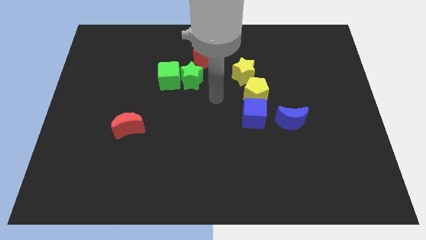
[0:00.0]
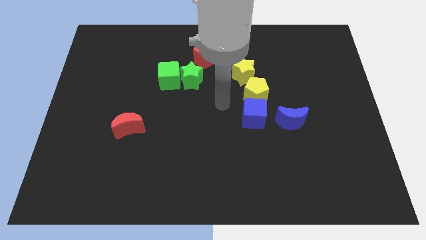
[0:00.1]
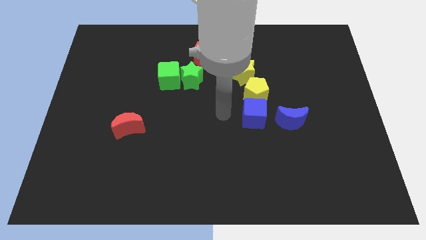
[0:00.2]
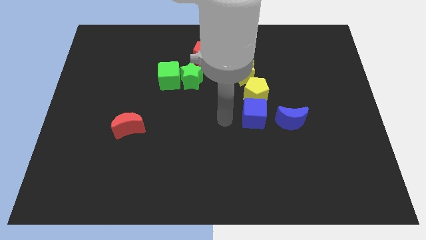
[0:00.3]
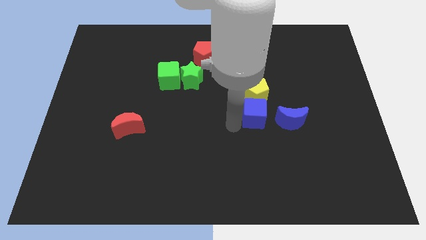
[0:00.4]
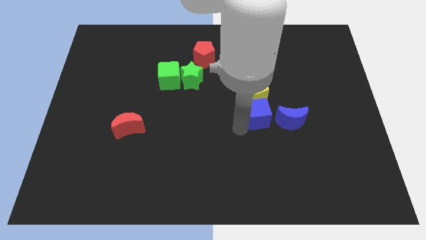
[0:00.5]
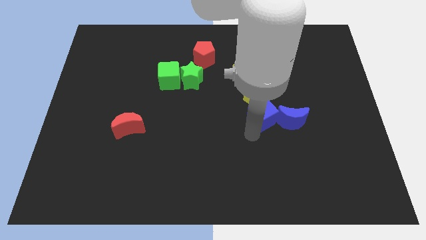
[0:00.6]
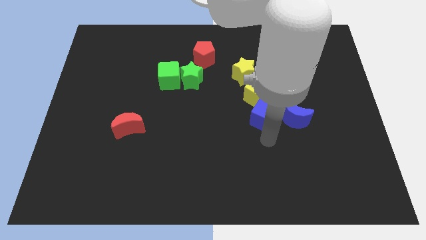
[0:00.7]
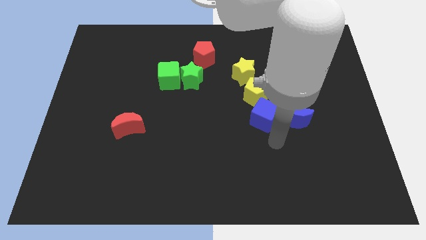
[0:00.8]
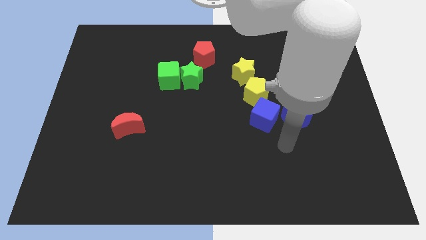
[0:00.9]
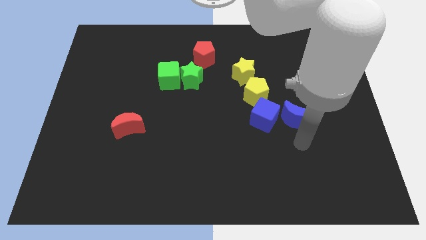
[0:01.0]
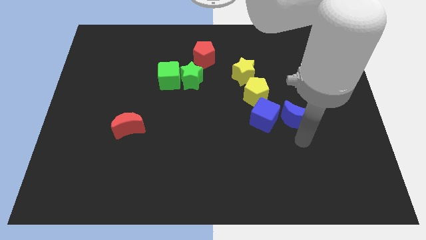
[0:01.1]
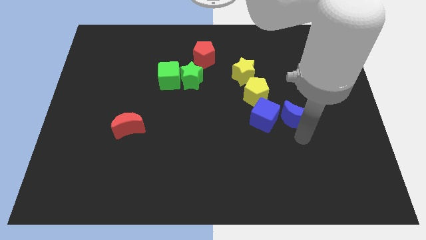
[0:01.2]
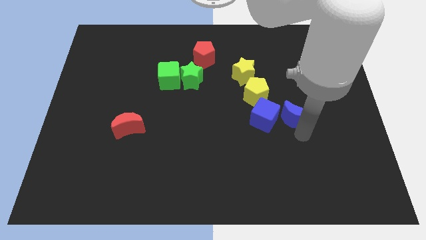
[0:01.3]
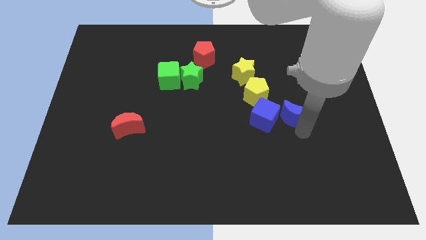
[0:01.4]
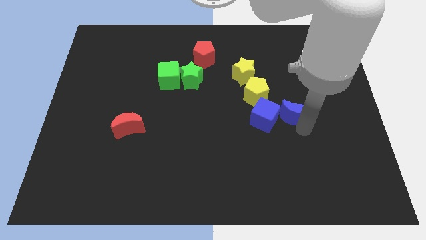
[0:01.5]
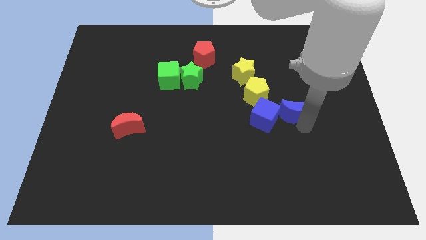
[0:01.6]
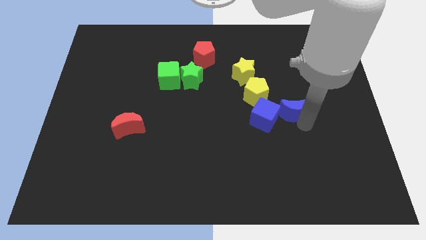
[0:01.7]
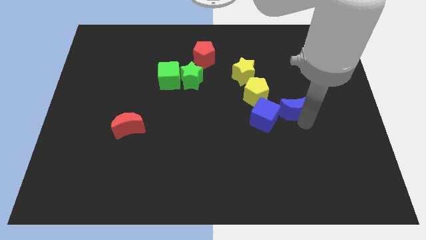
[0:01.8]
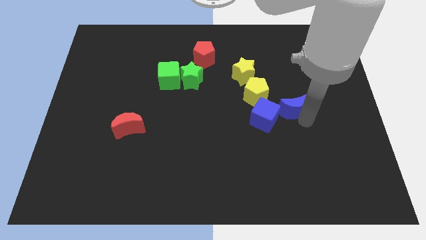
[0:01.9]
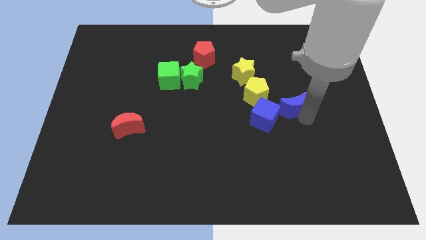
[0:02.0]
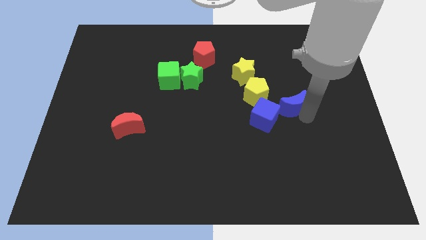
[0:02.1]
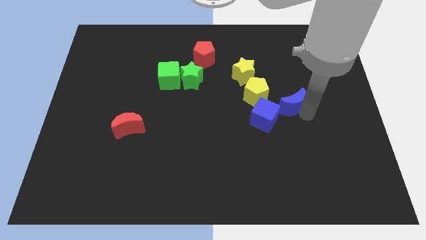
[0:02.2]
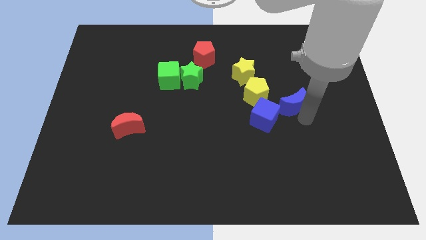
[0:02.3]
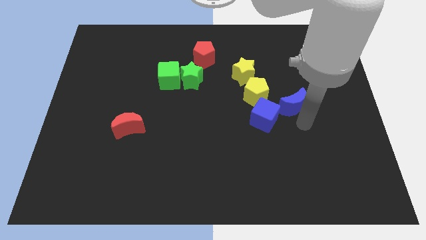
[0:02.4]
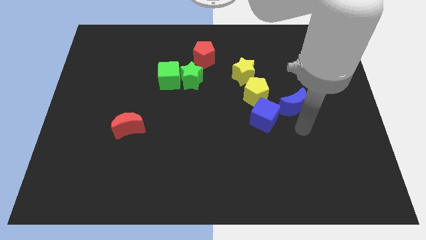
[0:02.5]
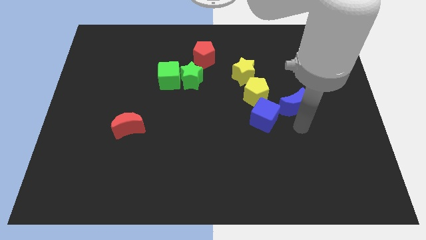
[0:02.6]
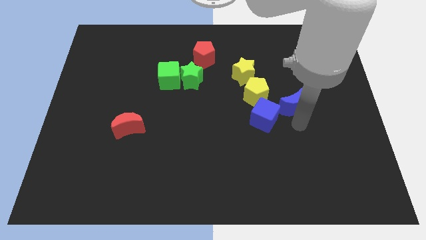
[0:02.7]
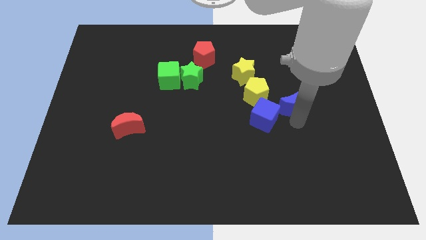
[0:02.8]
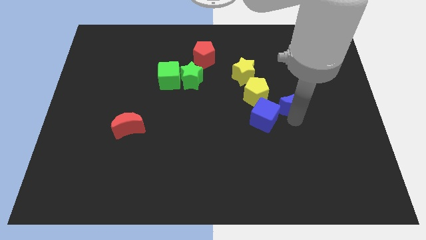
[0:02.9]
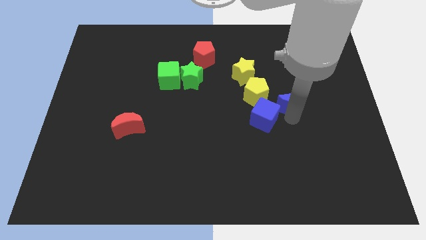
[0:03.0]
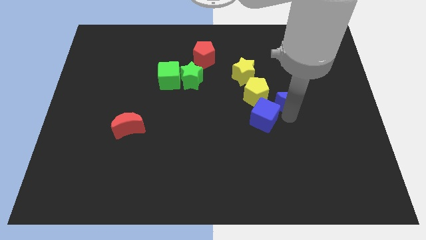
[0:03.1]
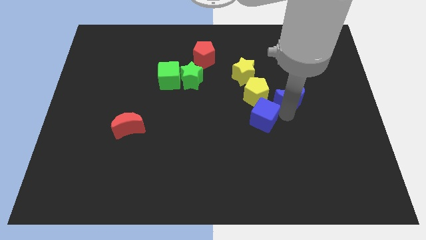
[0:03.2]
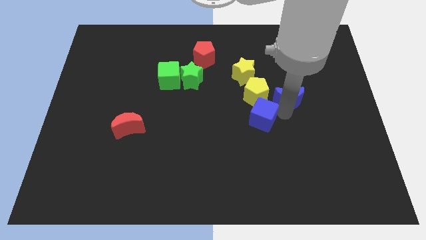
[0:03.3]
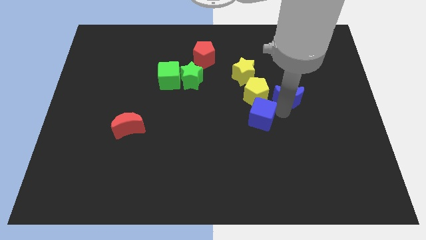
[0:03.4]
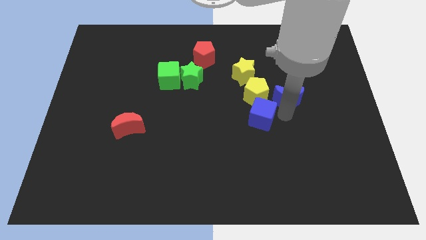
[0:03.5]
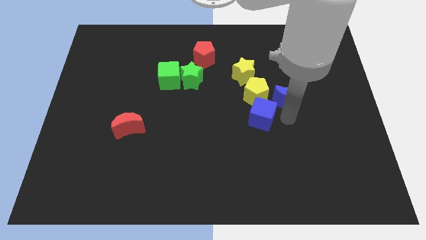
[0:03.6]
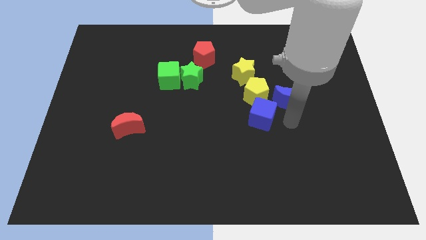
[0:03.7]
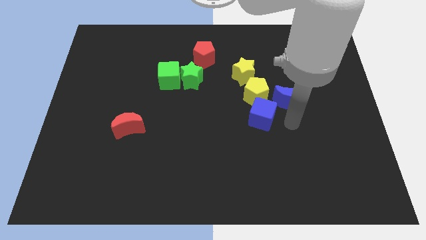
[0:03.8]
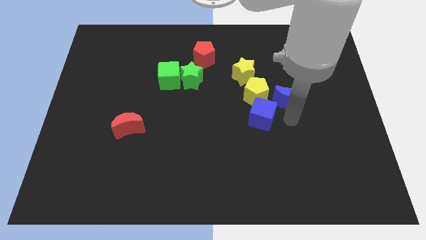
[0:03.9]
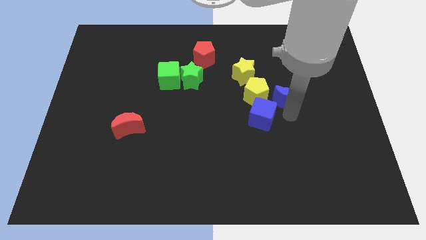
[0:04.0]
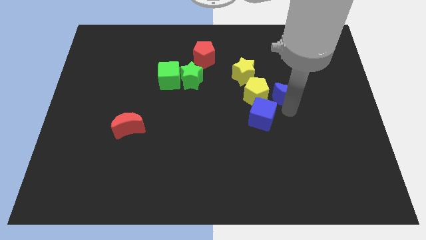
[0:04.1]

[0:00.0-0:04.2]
slightly slide the blue moon up

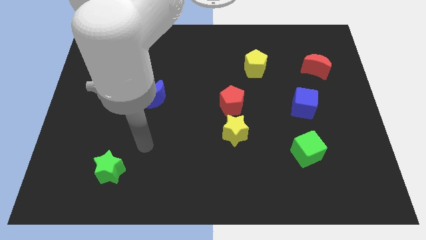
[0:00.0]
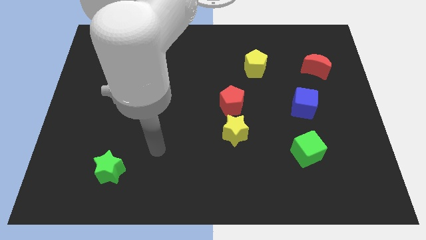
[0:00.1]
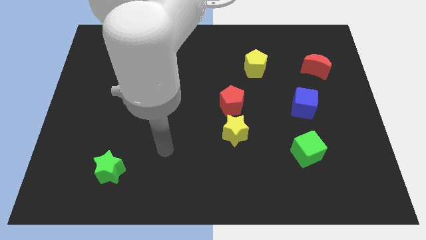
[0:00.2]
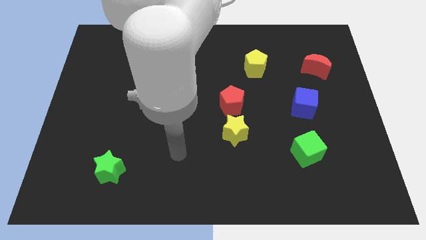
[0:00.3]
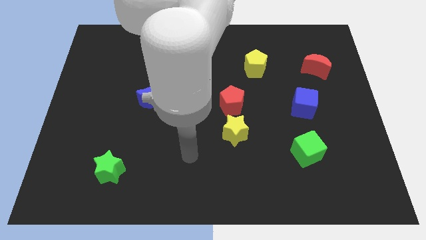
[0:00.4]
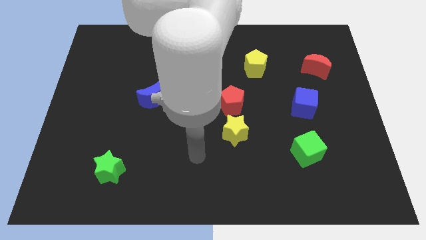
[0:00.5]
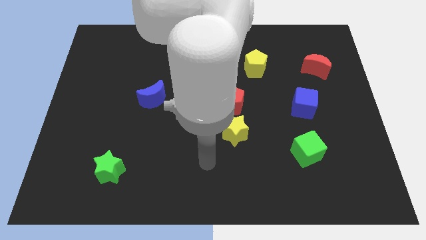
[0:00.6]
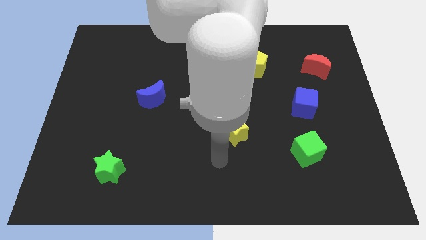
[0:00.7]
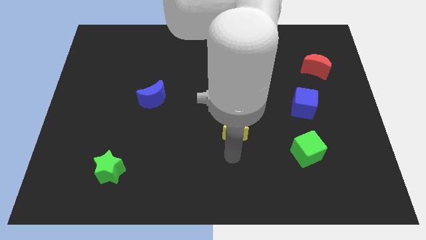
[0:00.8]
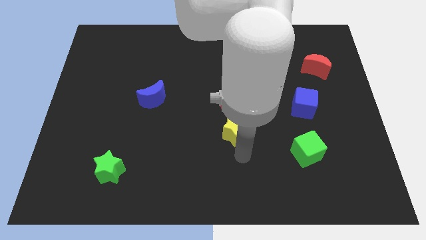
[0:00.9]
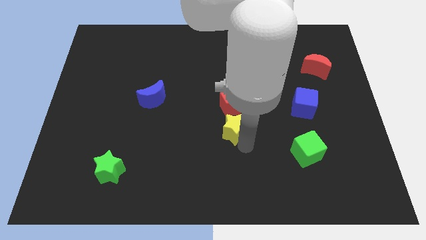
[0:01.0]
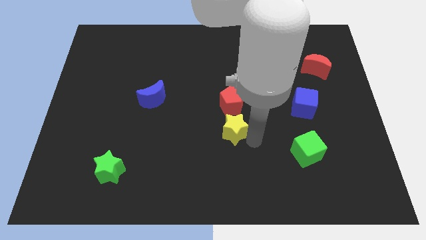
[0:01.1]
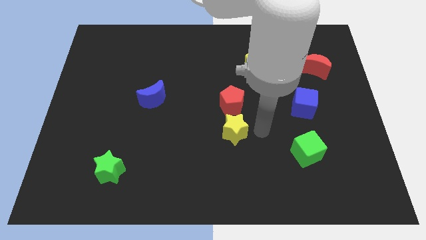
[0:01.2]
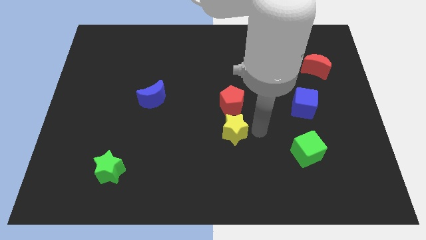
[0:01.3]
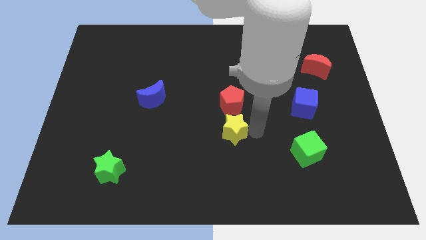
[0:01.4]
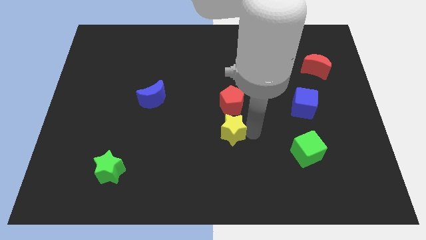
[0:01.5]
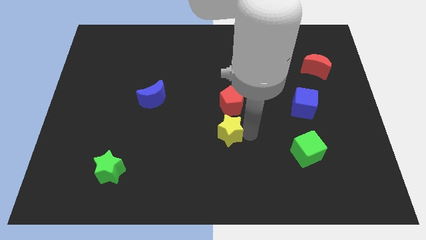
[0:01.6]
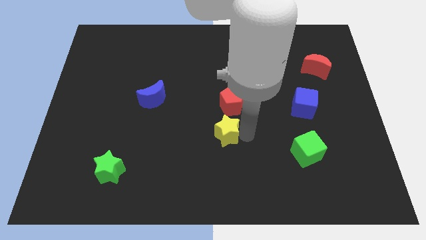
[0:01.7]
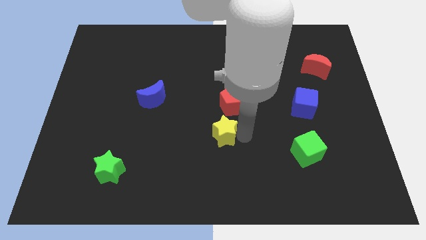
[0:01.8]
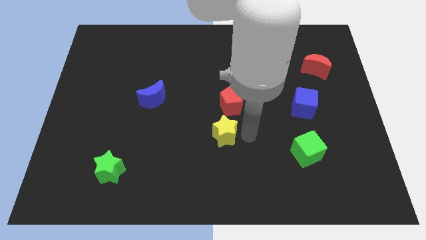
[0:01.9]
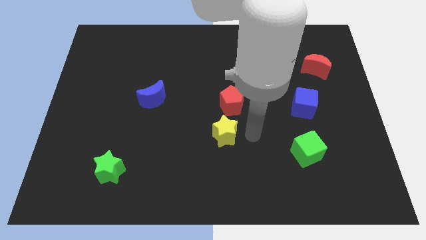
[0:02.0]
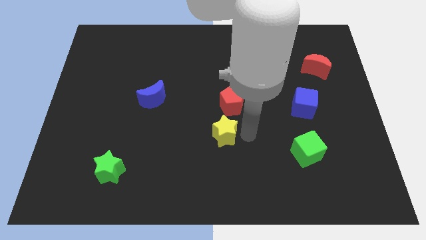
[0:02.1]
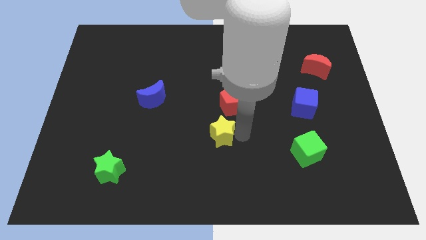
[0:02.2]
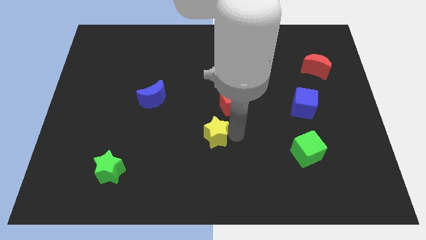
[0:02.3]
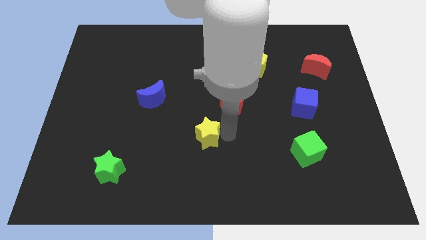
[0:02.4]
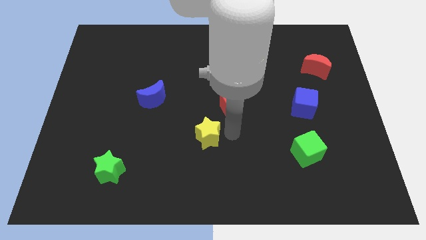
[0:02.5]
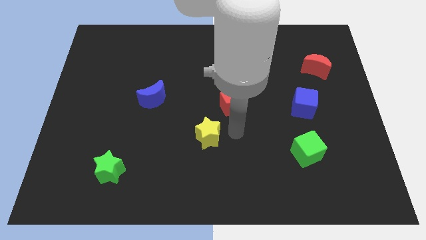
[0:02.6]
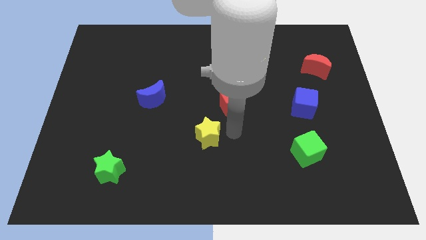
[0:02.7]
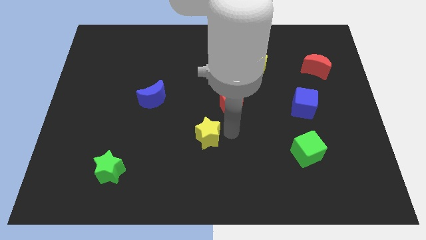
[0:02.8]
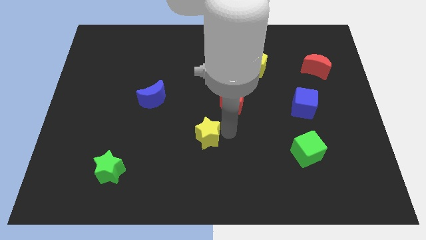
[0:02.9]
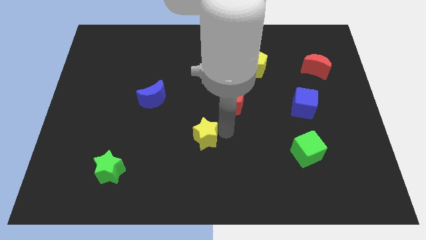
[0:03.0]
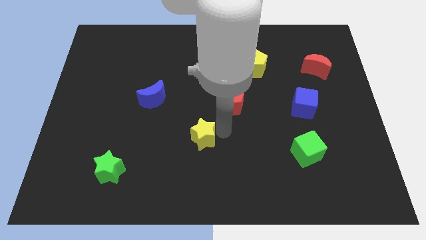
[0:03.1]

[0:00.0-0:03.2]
slightly slide the yellow star left

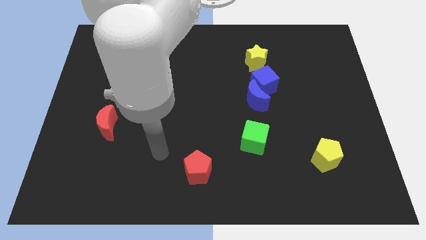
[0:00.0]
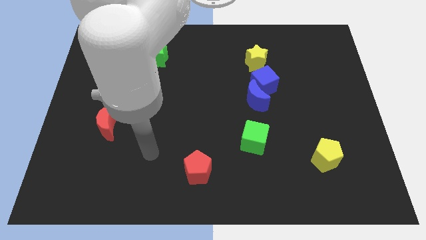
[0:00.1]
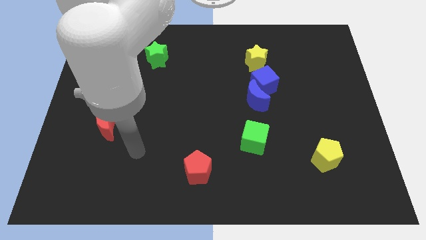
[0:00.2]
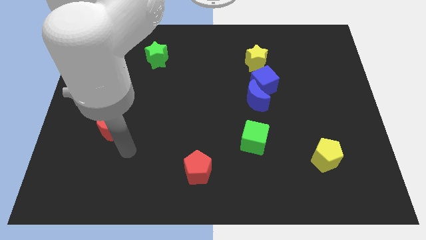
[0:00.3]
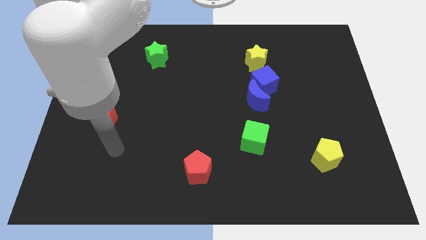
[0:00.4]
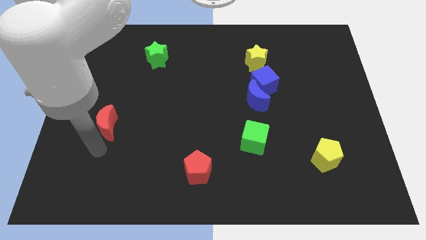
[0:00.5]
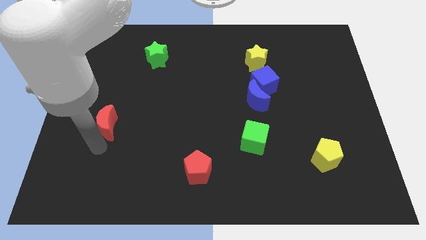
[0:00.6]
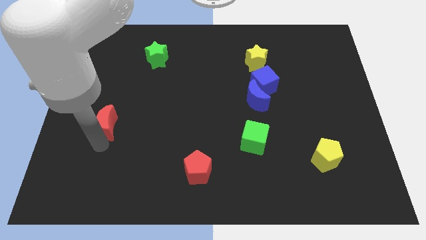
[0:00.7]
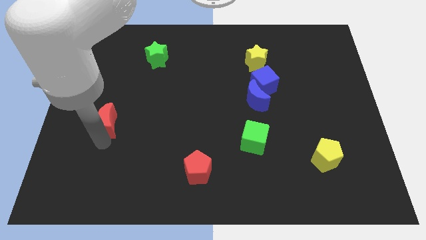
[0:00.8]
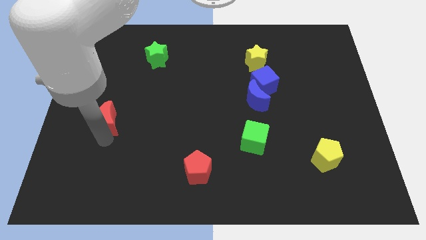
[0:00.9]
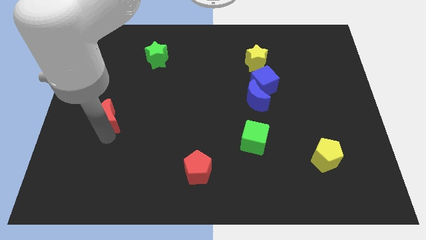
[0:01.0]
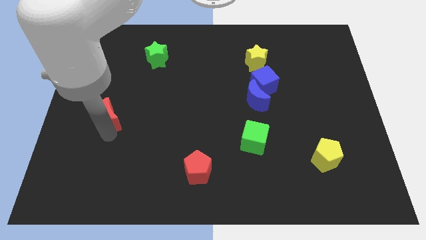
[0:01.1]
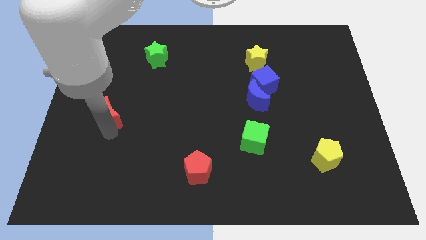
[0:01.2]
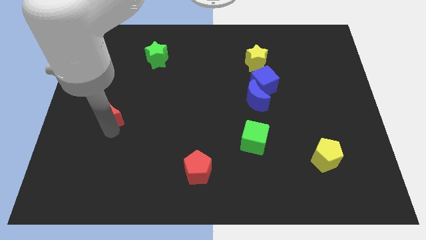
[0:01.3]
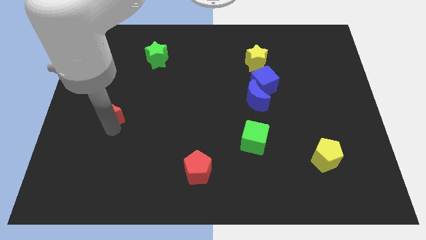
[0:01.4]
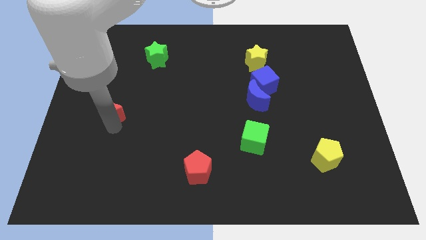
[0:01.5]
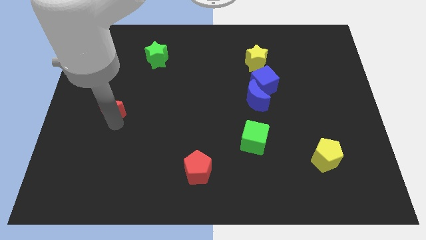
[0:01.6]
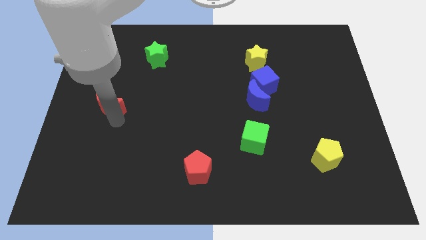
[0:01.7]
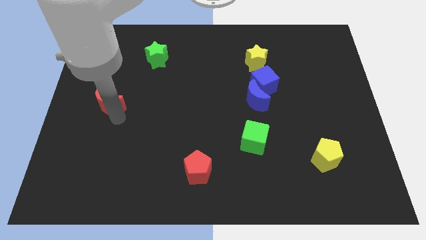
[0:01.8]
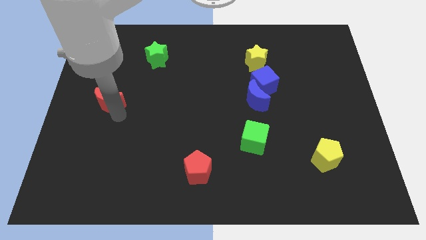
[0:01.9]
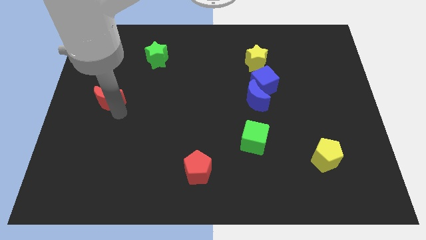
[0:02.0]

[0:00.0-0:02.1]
slightly slide the red moon upwards
